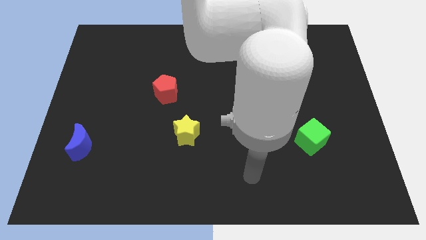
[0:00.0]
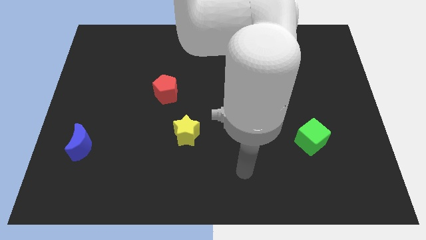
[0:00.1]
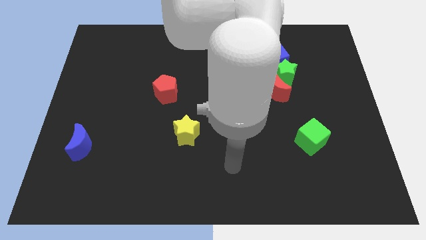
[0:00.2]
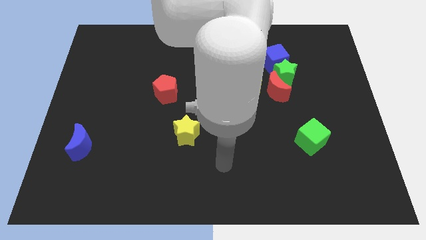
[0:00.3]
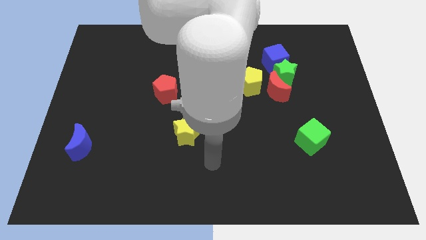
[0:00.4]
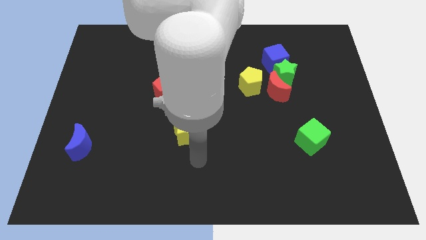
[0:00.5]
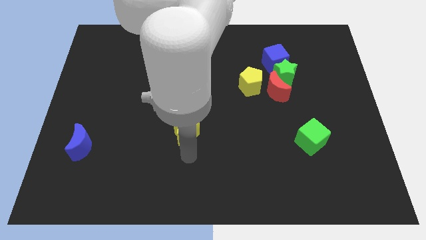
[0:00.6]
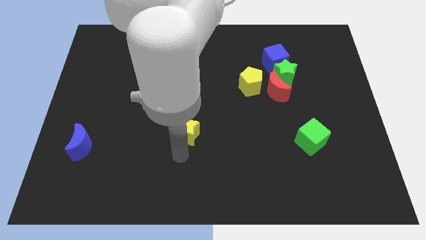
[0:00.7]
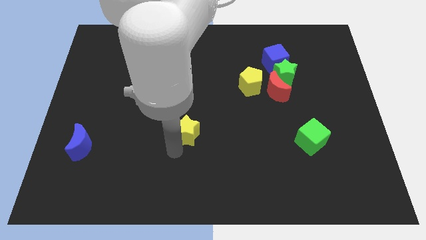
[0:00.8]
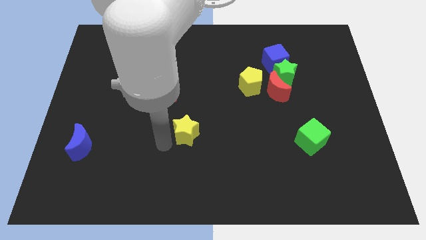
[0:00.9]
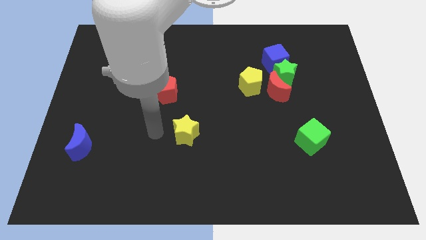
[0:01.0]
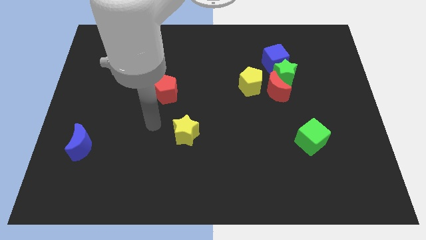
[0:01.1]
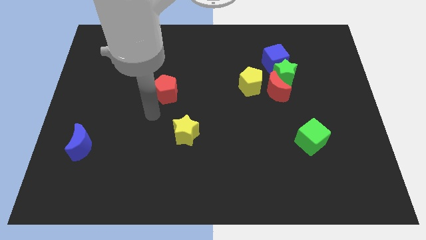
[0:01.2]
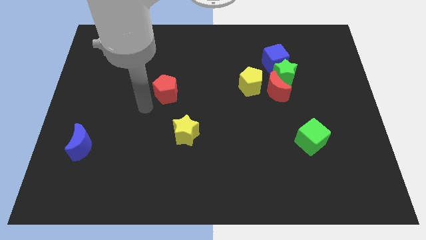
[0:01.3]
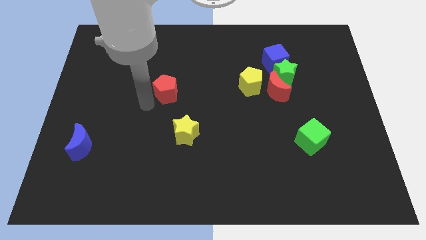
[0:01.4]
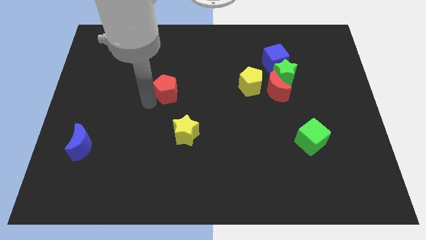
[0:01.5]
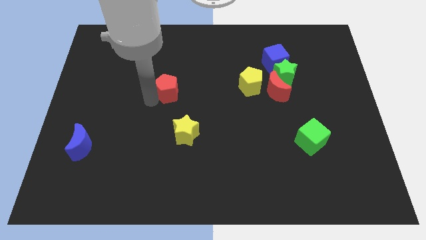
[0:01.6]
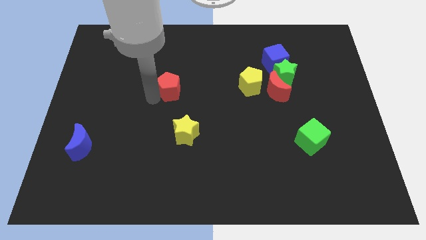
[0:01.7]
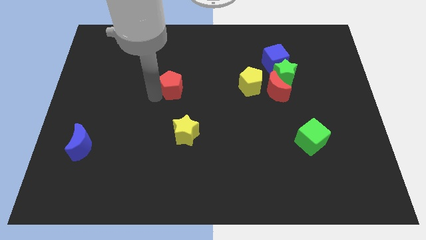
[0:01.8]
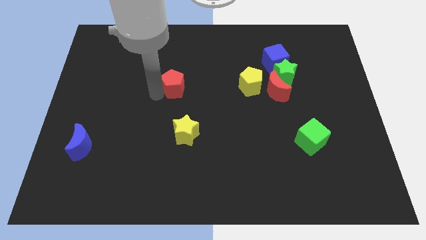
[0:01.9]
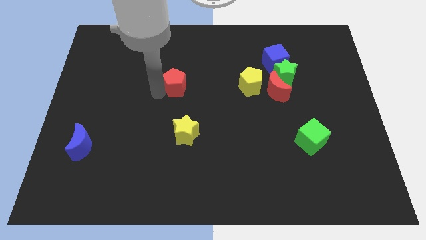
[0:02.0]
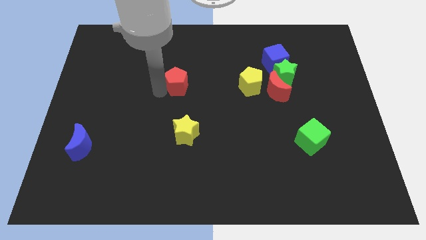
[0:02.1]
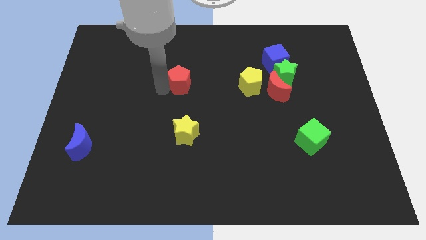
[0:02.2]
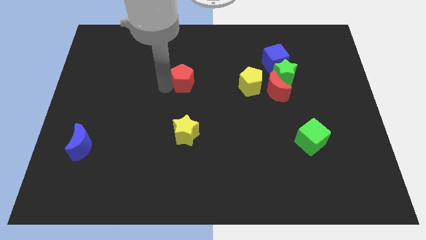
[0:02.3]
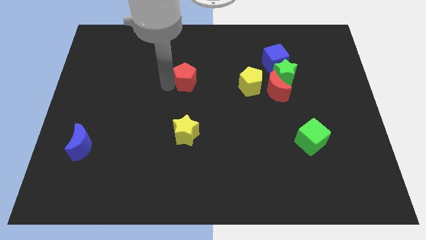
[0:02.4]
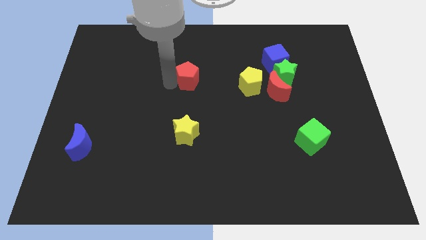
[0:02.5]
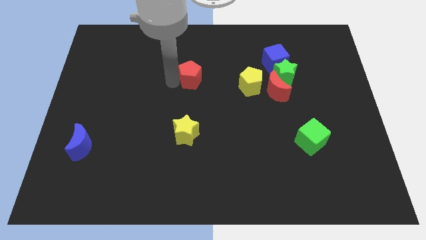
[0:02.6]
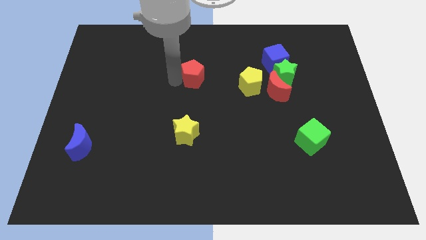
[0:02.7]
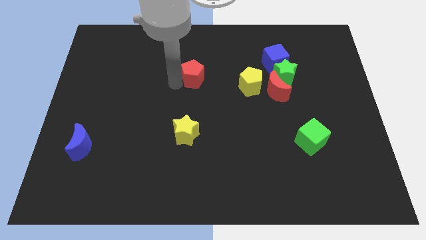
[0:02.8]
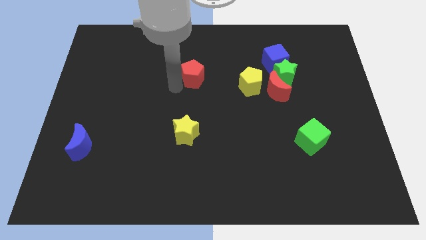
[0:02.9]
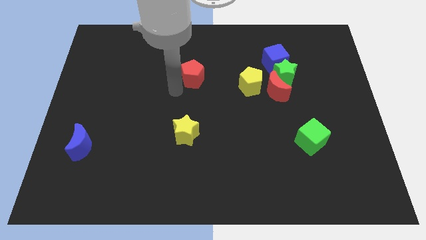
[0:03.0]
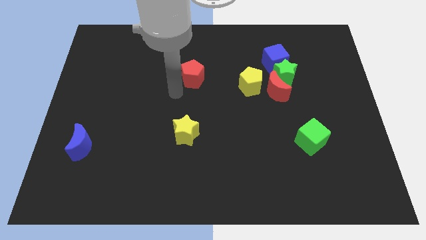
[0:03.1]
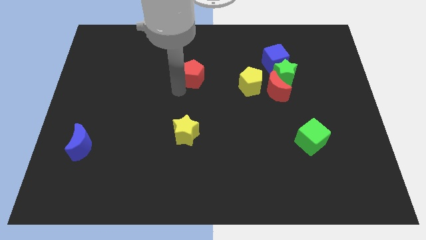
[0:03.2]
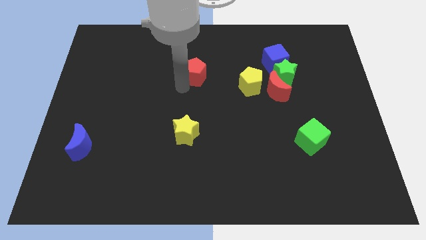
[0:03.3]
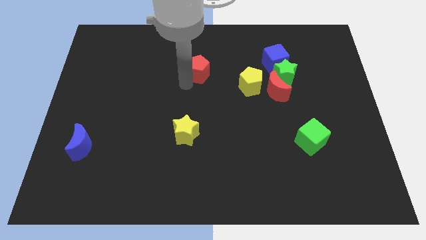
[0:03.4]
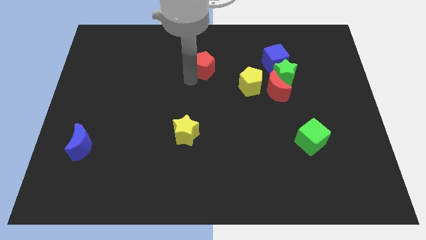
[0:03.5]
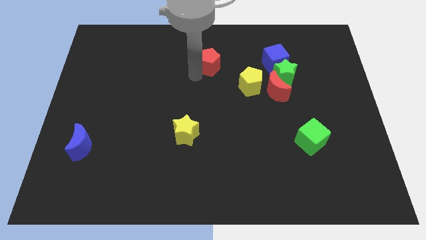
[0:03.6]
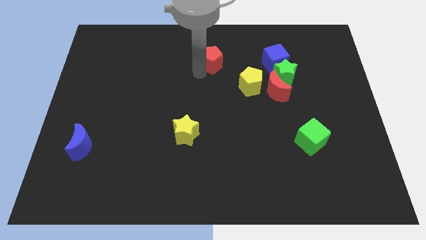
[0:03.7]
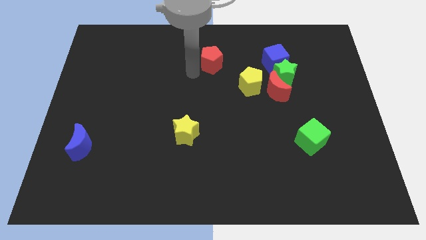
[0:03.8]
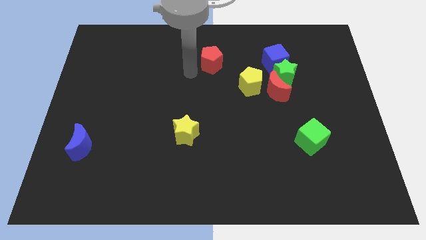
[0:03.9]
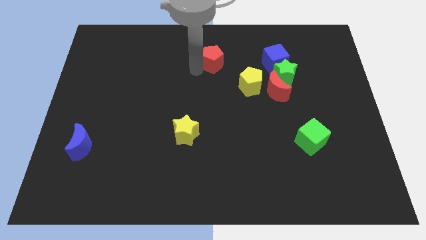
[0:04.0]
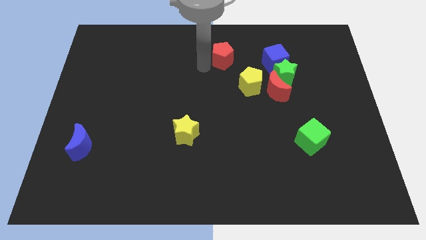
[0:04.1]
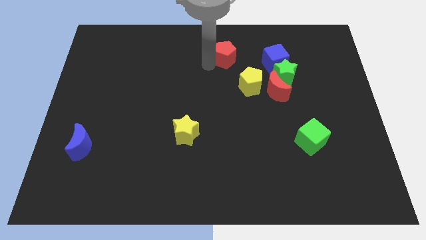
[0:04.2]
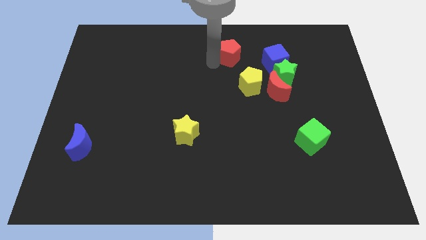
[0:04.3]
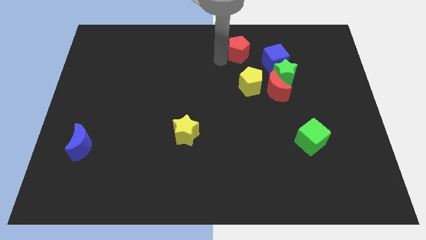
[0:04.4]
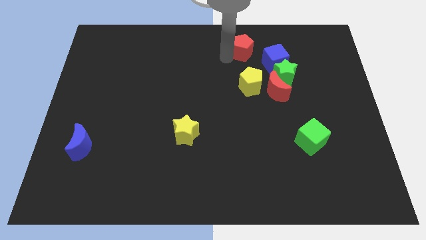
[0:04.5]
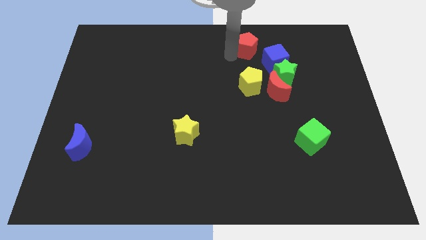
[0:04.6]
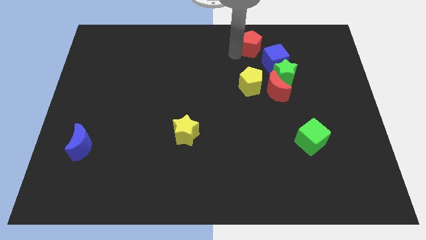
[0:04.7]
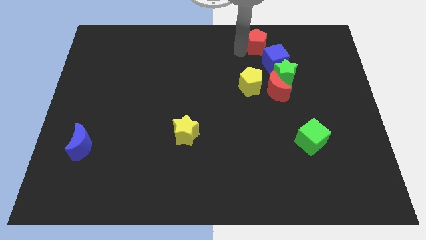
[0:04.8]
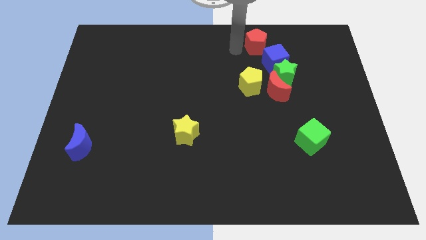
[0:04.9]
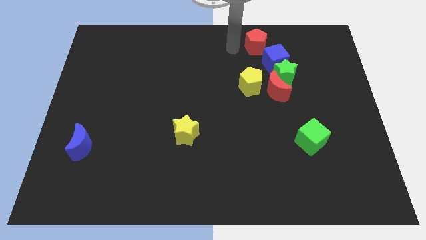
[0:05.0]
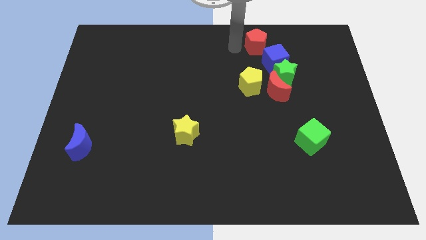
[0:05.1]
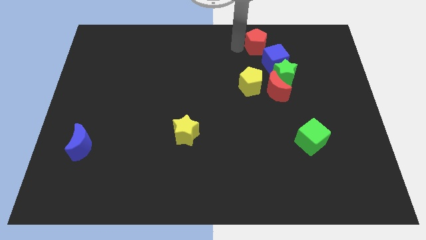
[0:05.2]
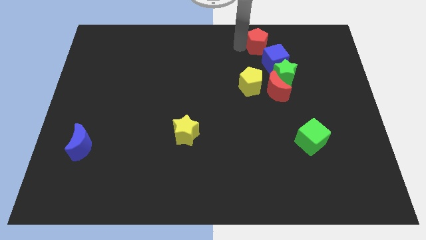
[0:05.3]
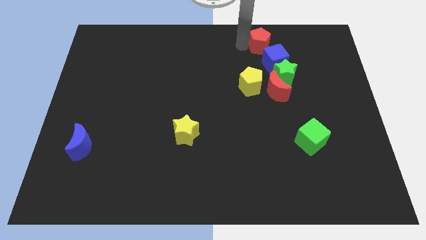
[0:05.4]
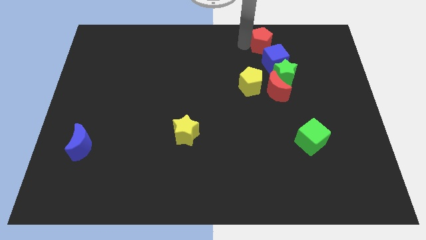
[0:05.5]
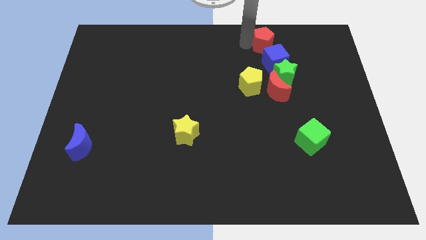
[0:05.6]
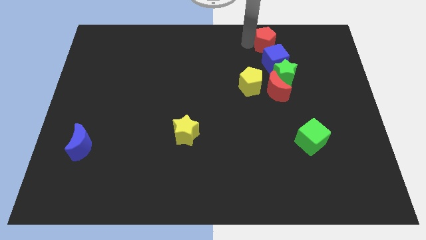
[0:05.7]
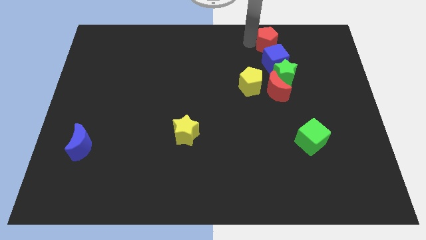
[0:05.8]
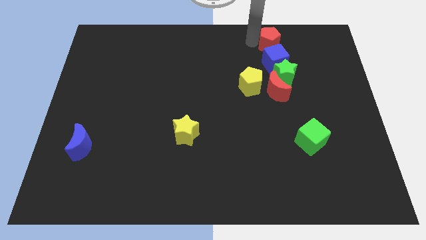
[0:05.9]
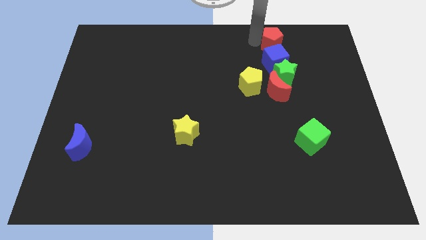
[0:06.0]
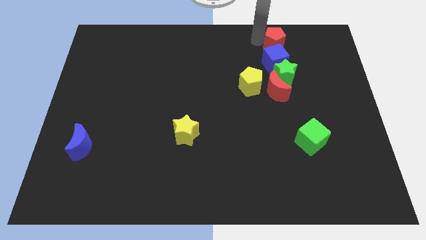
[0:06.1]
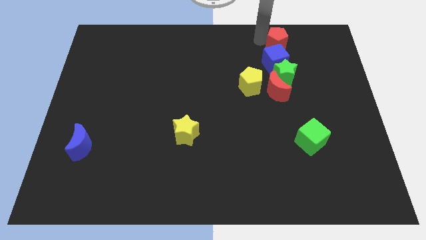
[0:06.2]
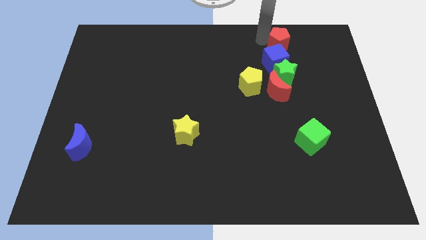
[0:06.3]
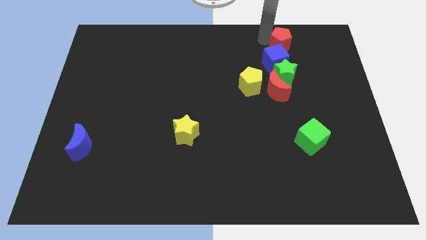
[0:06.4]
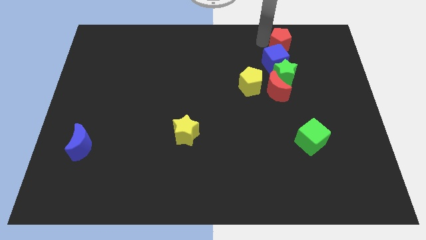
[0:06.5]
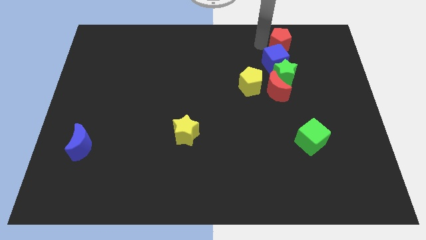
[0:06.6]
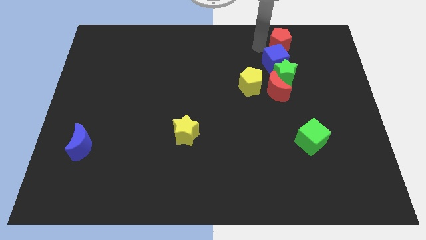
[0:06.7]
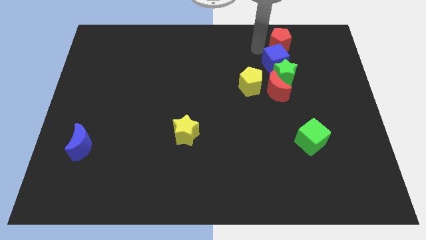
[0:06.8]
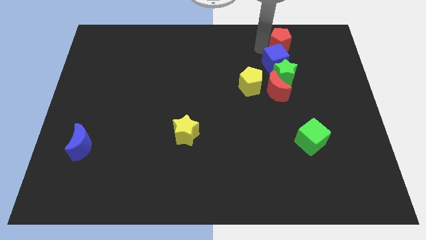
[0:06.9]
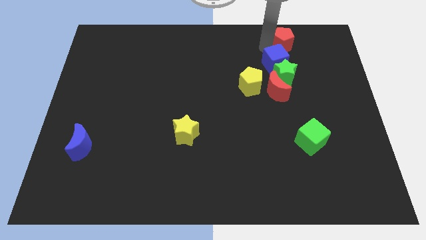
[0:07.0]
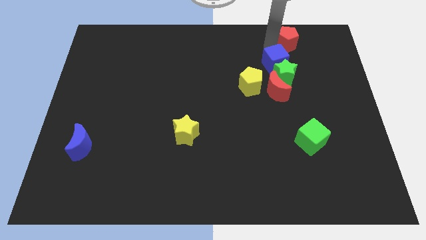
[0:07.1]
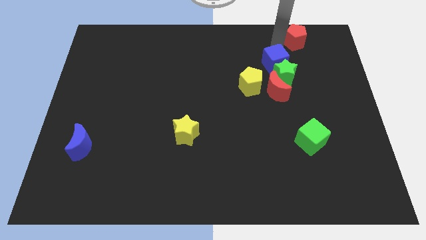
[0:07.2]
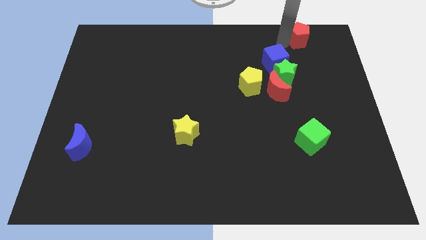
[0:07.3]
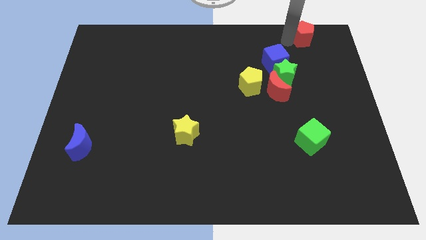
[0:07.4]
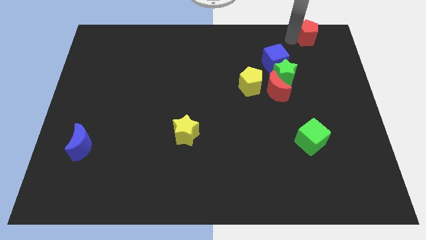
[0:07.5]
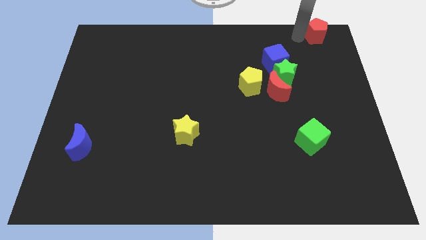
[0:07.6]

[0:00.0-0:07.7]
put the red pentagon to the top right corner
